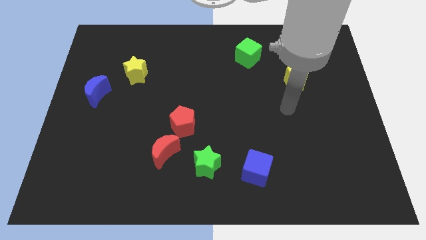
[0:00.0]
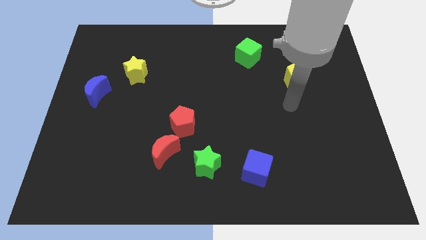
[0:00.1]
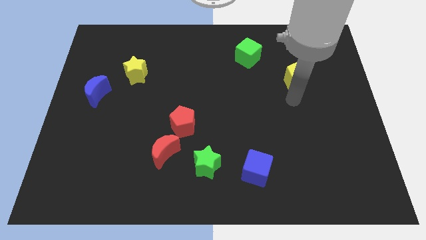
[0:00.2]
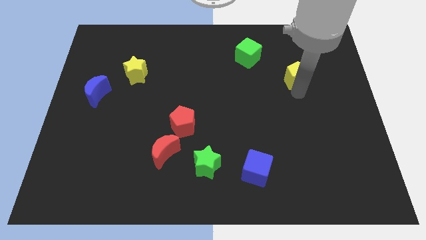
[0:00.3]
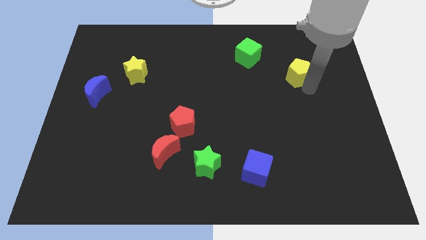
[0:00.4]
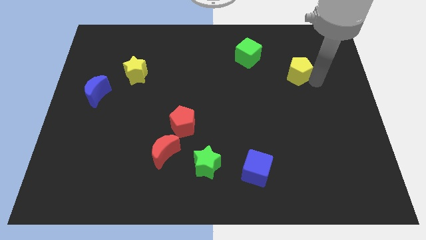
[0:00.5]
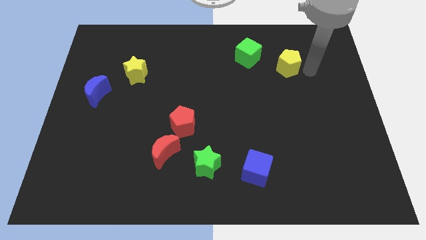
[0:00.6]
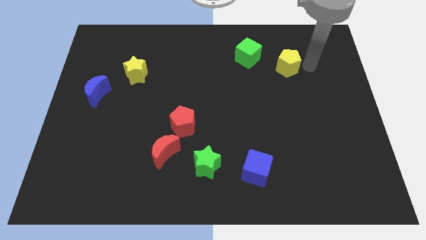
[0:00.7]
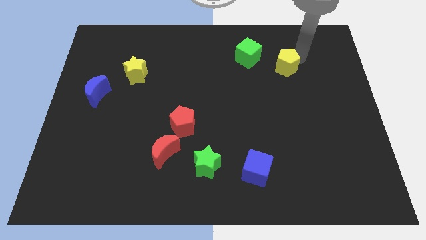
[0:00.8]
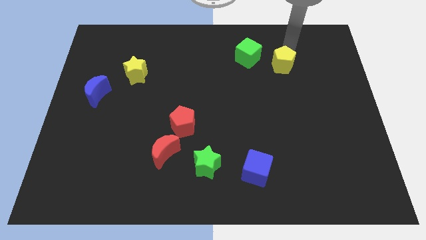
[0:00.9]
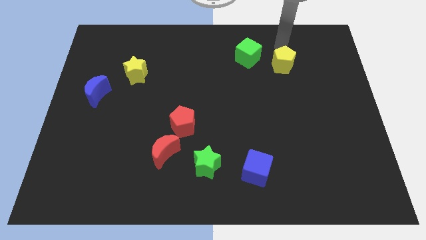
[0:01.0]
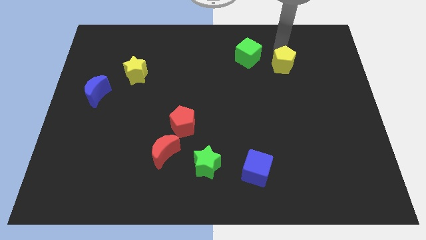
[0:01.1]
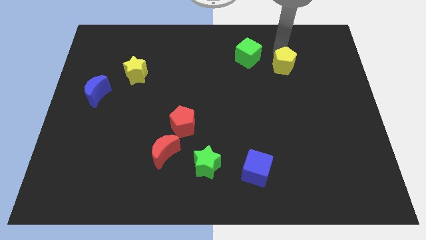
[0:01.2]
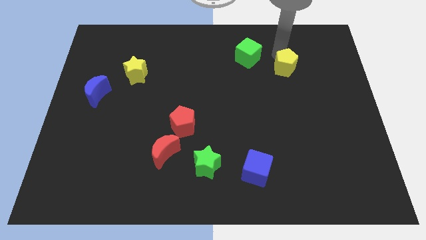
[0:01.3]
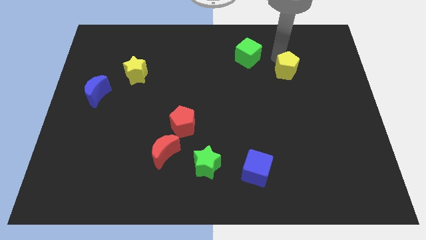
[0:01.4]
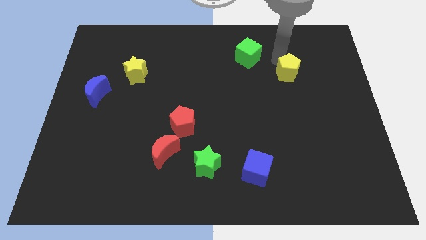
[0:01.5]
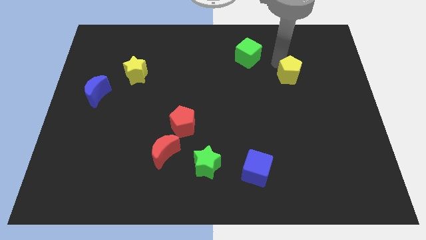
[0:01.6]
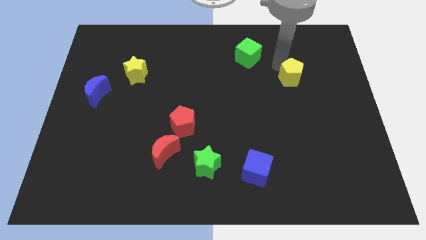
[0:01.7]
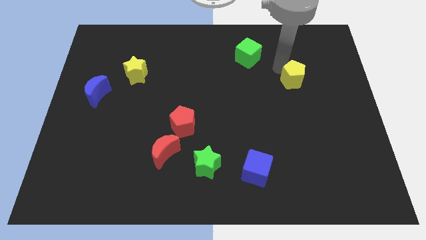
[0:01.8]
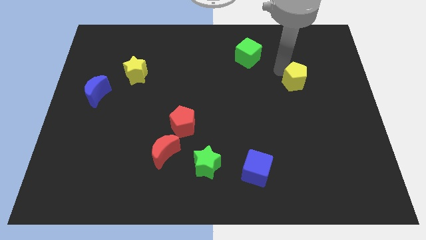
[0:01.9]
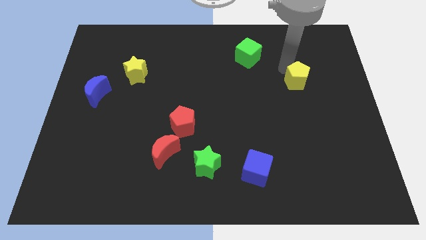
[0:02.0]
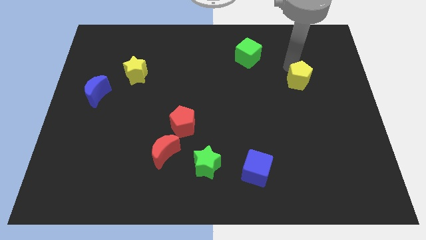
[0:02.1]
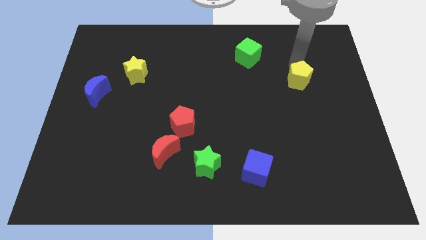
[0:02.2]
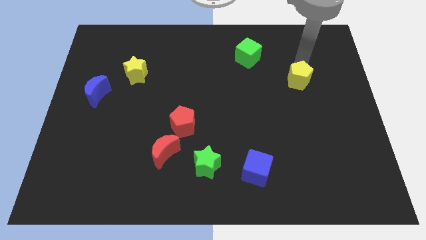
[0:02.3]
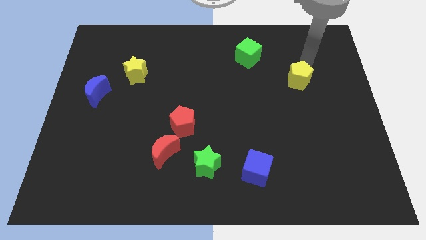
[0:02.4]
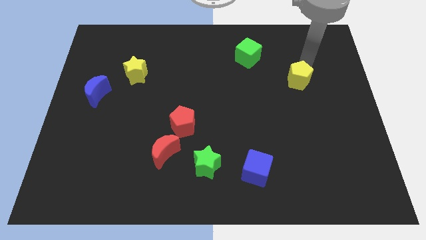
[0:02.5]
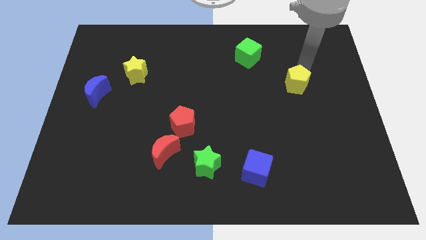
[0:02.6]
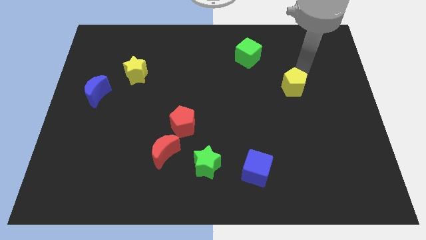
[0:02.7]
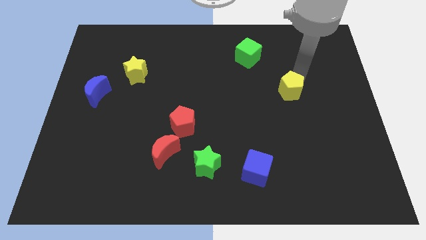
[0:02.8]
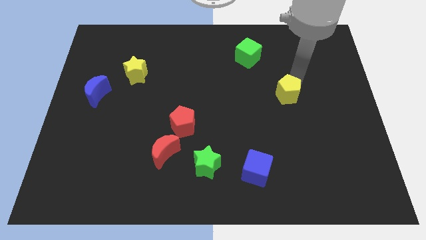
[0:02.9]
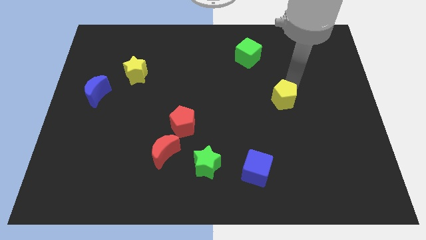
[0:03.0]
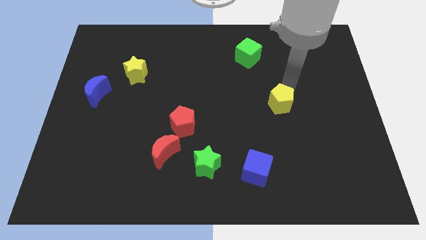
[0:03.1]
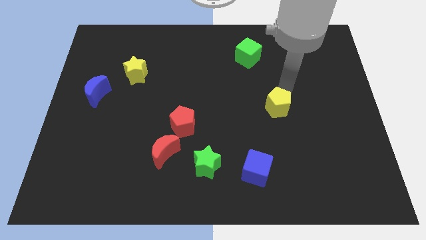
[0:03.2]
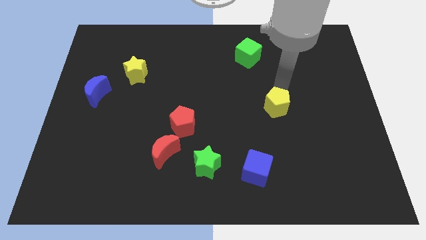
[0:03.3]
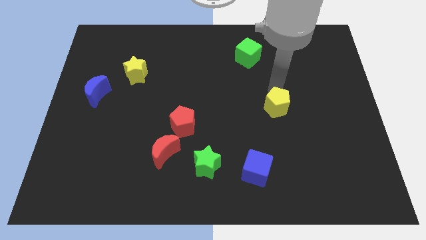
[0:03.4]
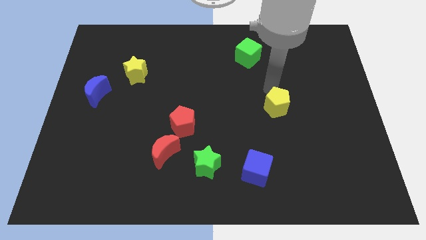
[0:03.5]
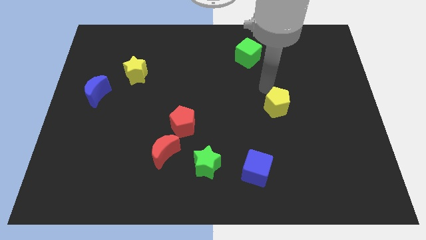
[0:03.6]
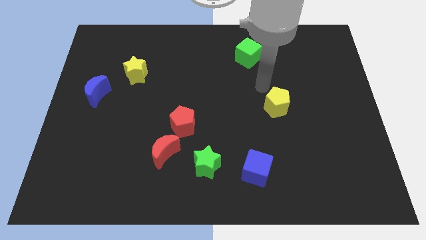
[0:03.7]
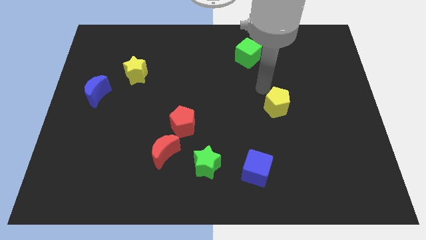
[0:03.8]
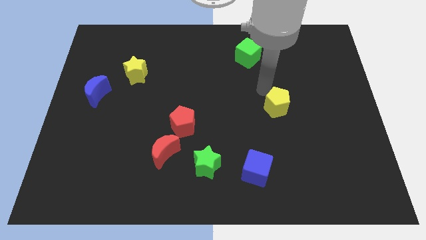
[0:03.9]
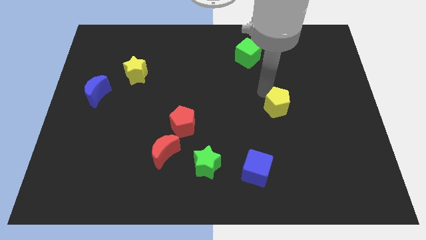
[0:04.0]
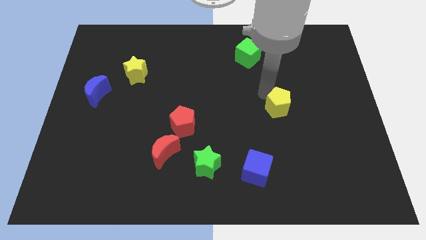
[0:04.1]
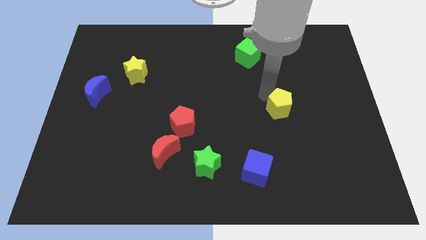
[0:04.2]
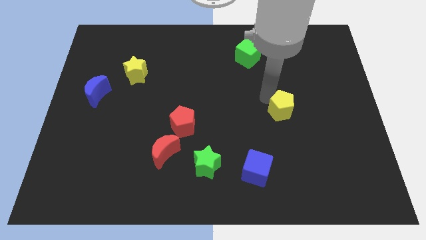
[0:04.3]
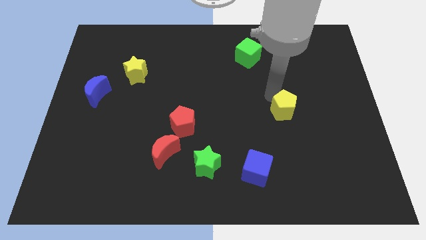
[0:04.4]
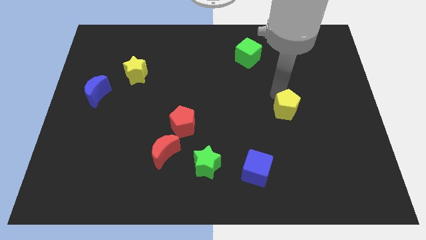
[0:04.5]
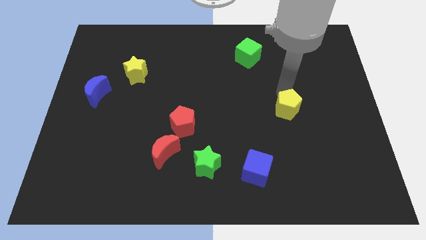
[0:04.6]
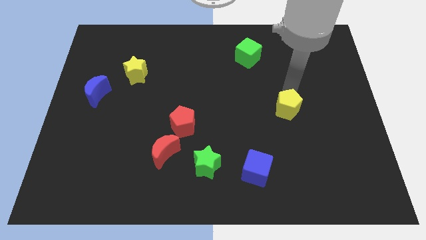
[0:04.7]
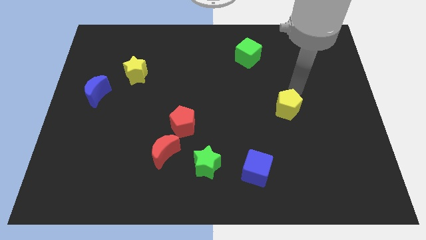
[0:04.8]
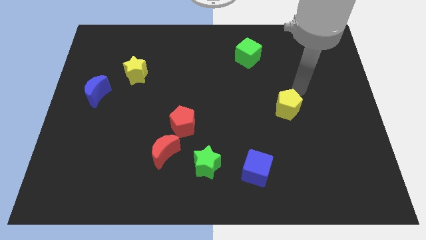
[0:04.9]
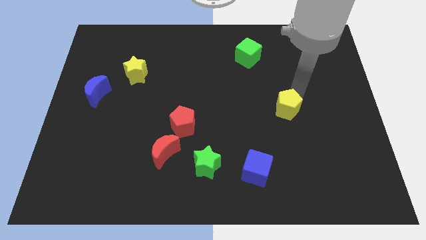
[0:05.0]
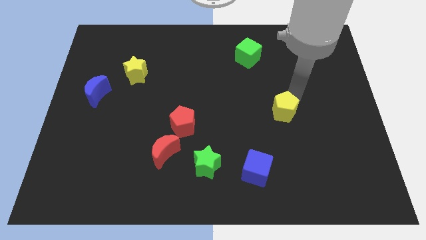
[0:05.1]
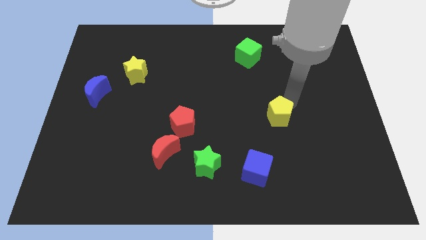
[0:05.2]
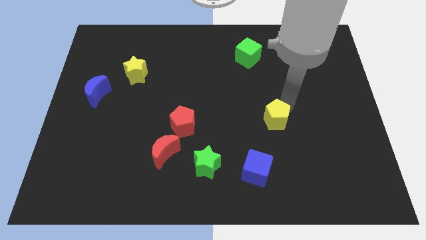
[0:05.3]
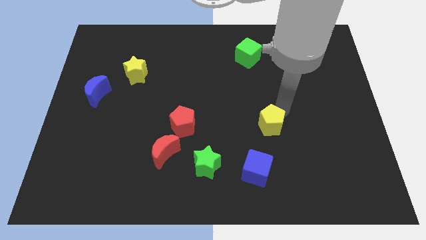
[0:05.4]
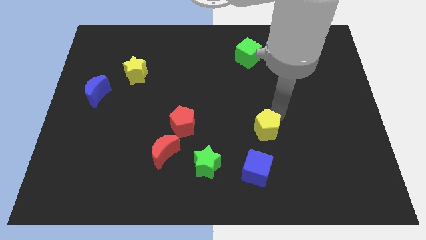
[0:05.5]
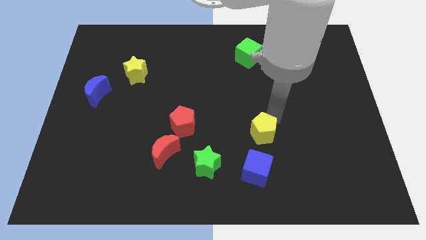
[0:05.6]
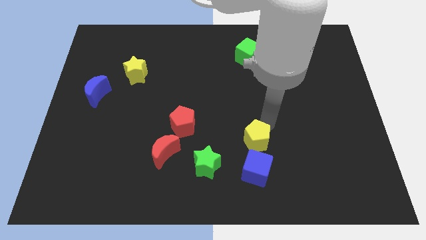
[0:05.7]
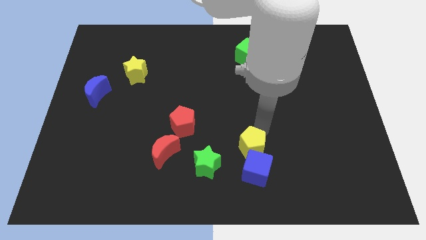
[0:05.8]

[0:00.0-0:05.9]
move the yellow pentagon to the blue cube
